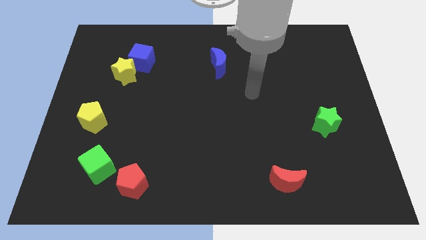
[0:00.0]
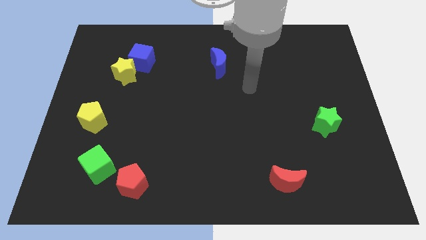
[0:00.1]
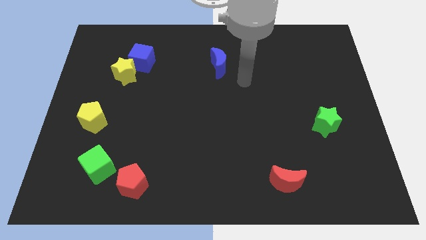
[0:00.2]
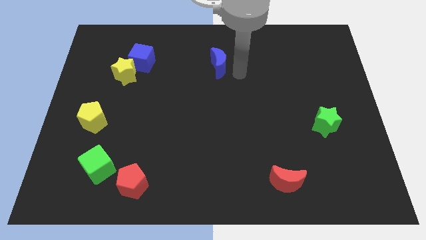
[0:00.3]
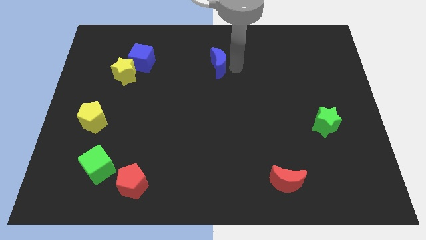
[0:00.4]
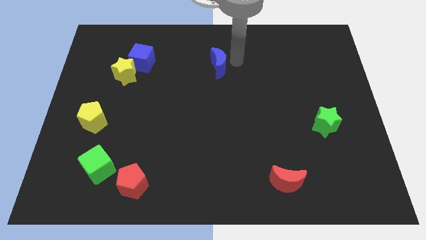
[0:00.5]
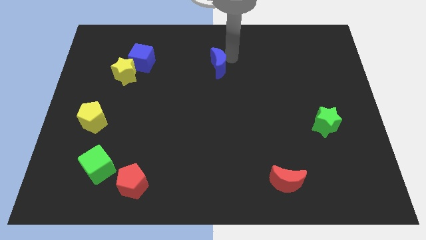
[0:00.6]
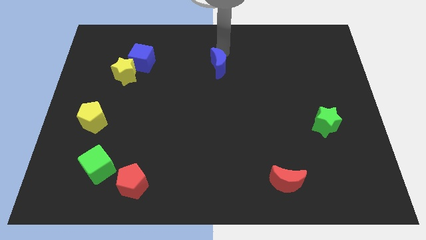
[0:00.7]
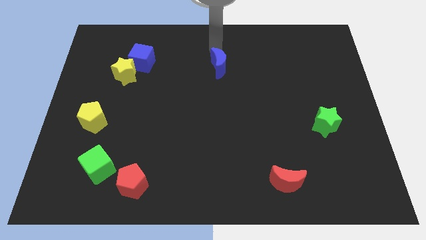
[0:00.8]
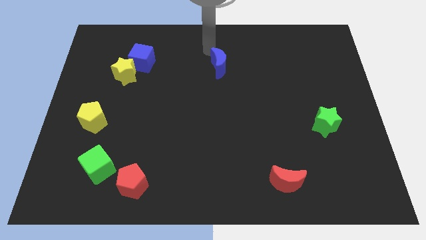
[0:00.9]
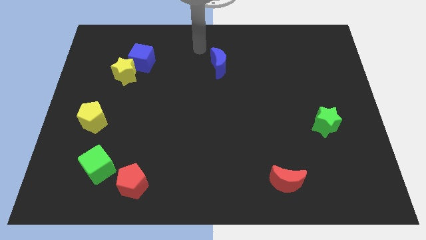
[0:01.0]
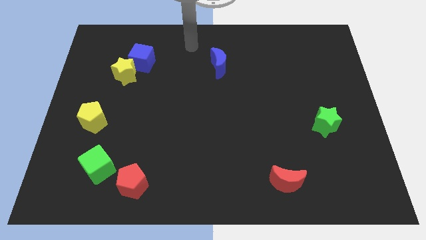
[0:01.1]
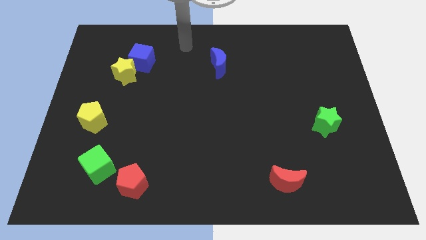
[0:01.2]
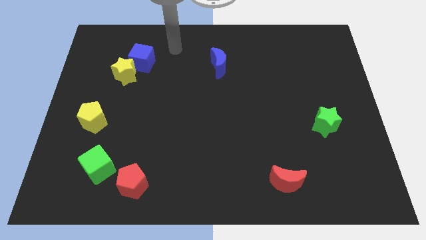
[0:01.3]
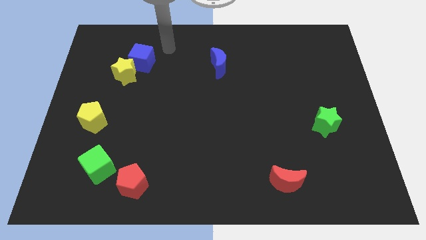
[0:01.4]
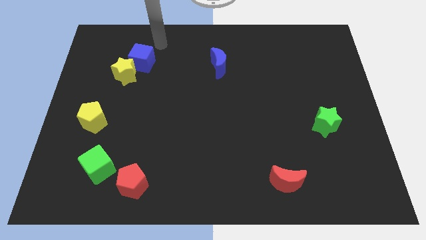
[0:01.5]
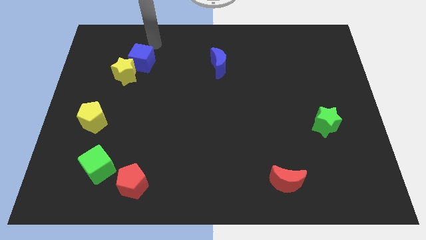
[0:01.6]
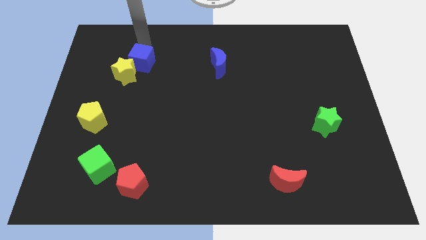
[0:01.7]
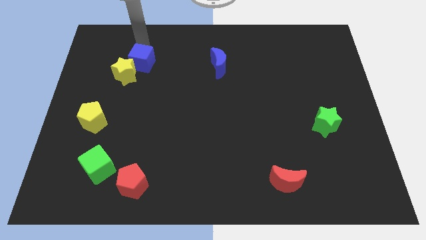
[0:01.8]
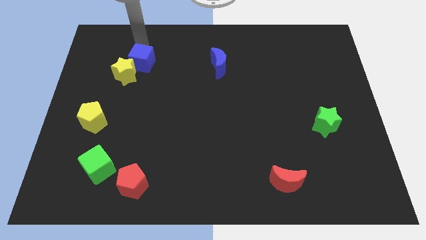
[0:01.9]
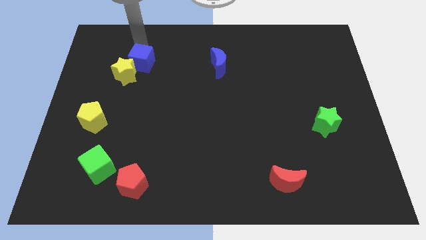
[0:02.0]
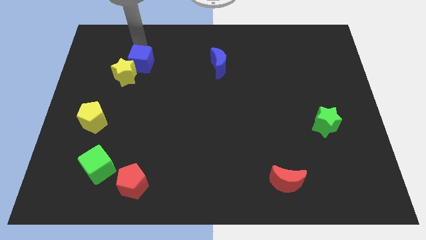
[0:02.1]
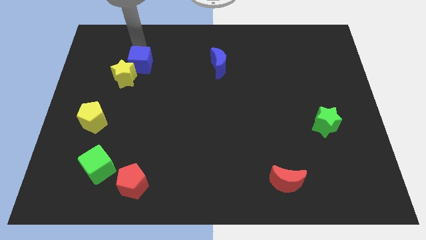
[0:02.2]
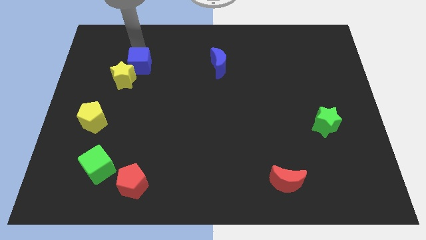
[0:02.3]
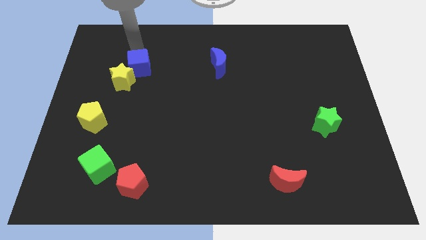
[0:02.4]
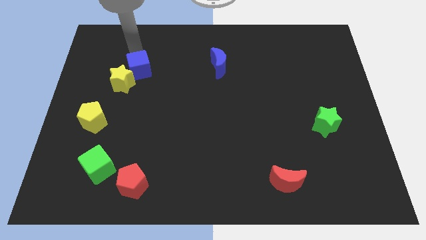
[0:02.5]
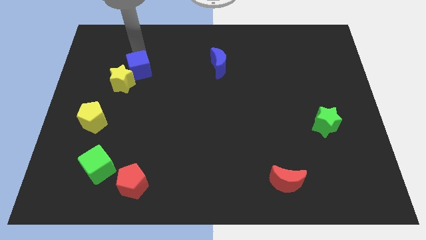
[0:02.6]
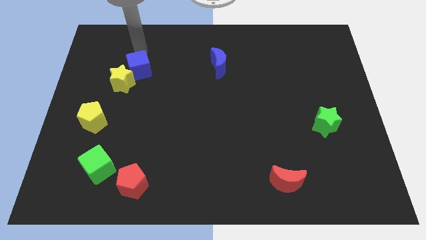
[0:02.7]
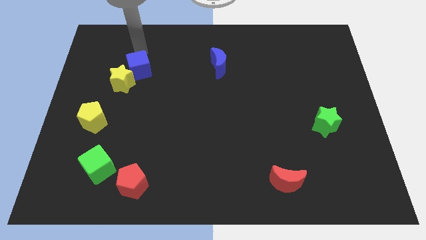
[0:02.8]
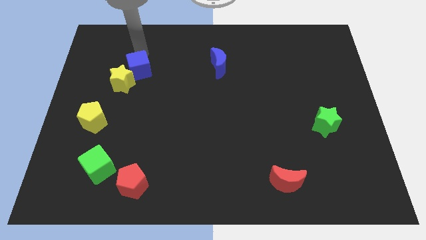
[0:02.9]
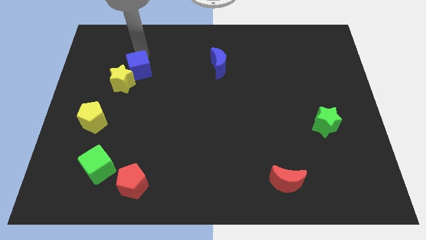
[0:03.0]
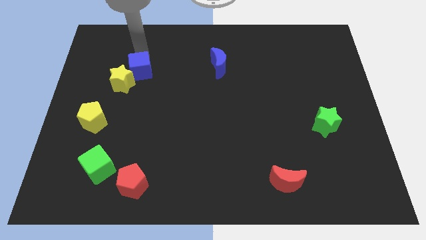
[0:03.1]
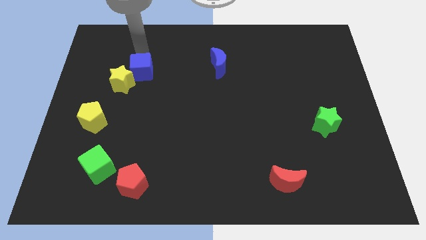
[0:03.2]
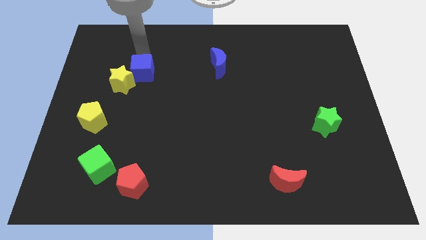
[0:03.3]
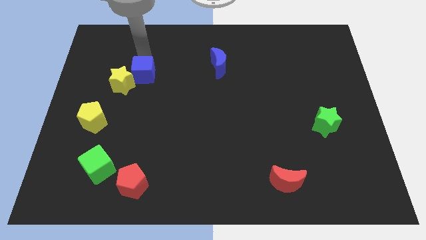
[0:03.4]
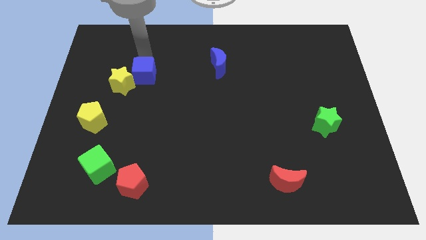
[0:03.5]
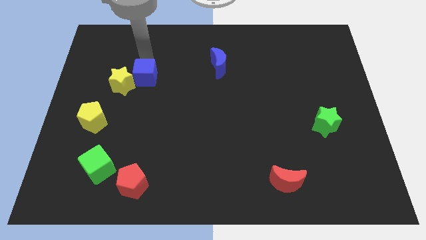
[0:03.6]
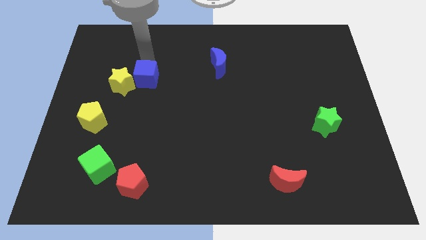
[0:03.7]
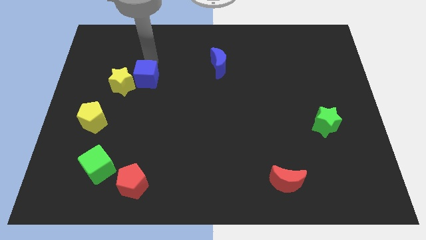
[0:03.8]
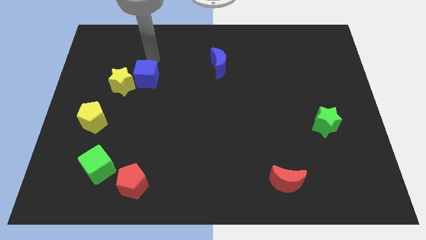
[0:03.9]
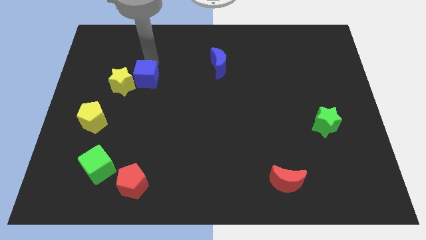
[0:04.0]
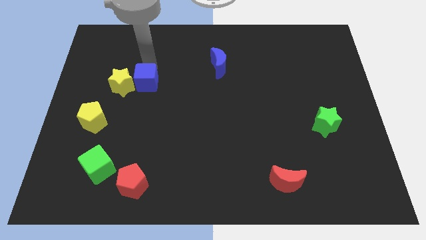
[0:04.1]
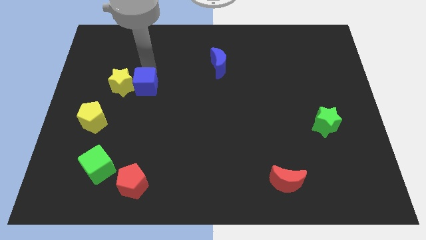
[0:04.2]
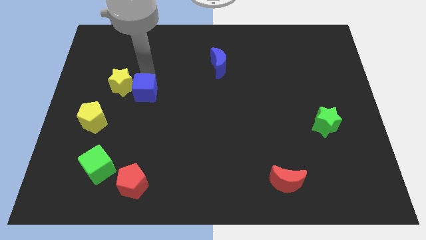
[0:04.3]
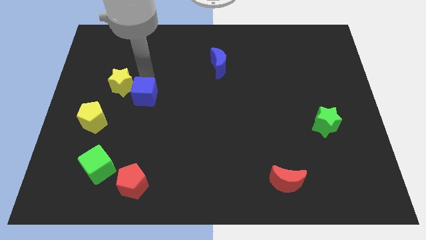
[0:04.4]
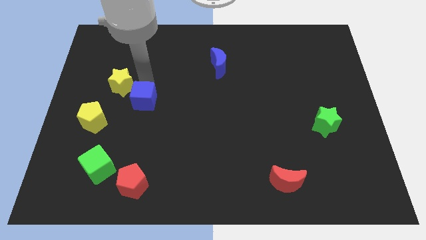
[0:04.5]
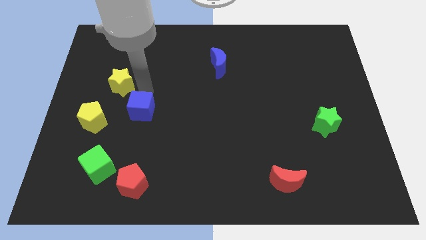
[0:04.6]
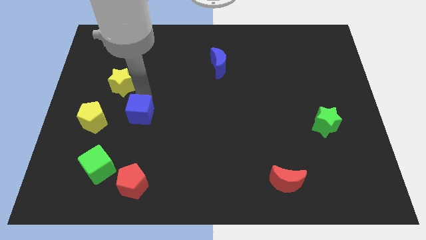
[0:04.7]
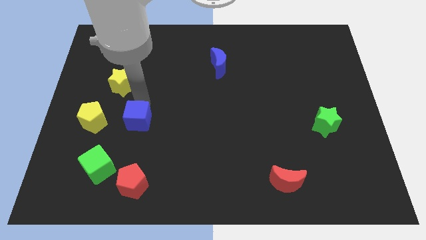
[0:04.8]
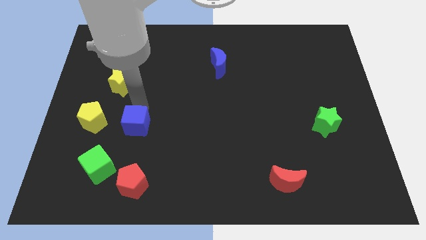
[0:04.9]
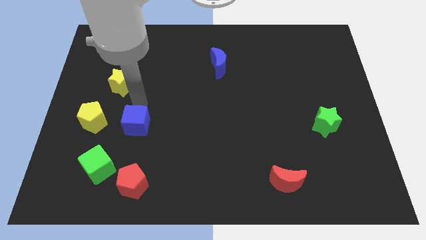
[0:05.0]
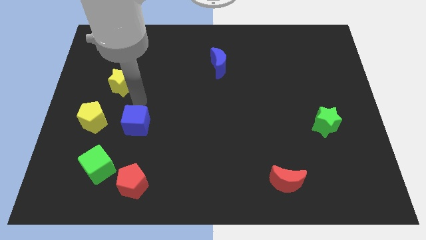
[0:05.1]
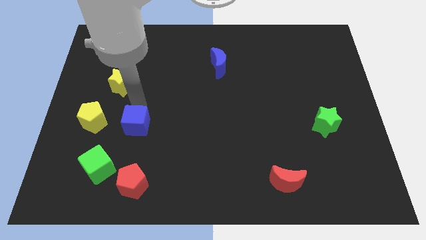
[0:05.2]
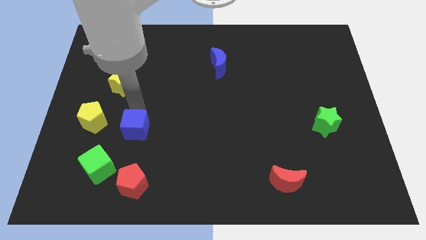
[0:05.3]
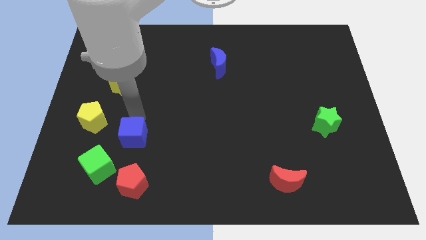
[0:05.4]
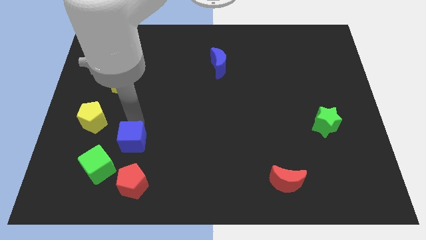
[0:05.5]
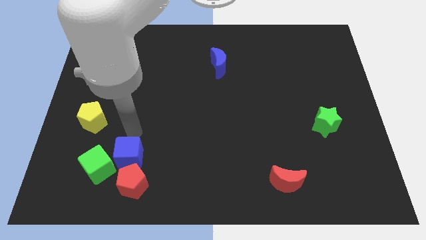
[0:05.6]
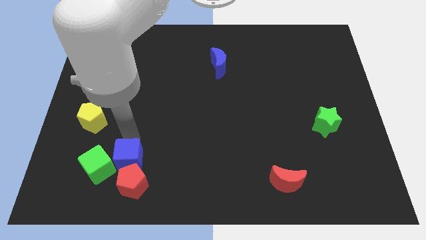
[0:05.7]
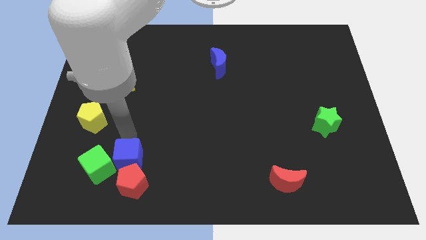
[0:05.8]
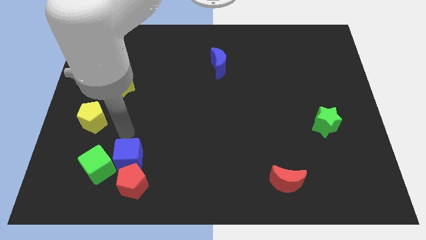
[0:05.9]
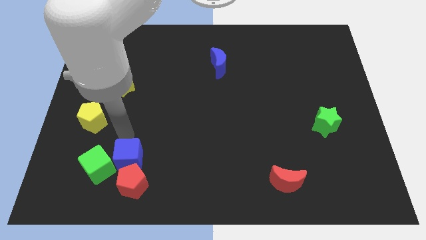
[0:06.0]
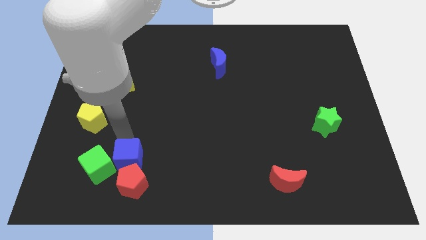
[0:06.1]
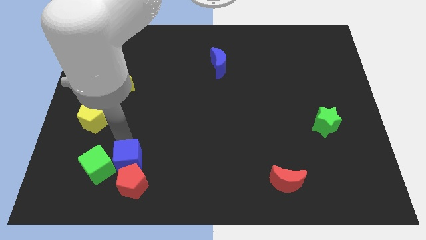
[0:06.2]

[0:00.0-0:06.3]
push the blue cube towards the red pentagon

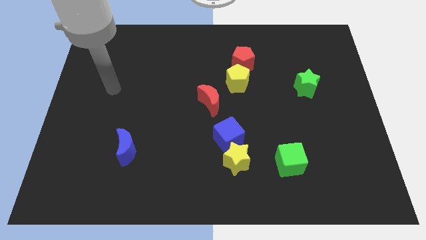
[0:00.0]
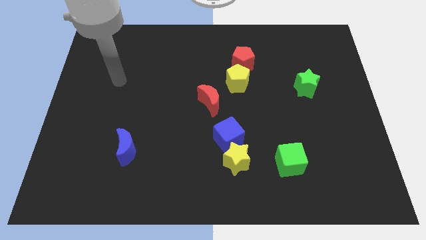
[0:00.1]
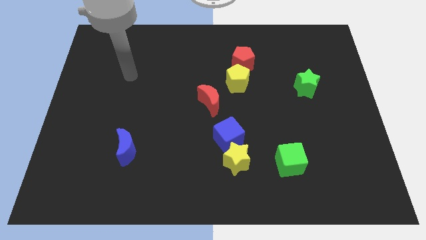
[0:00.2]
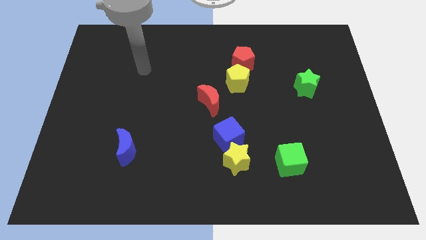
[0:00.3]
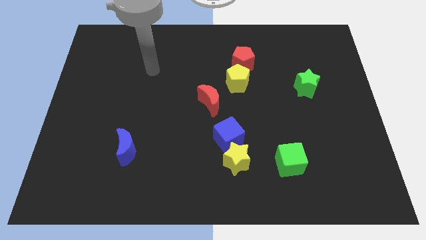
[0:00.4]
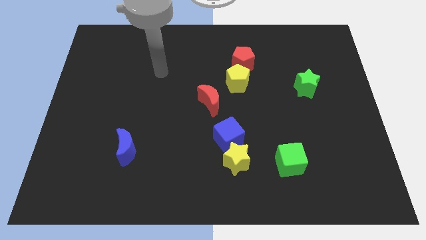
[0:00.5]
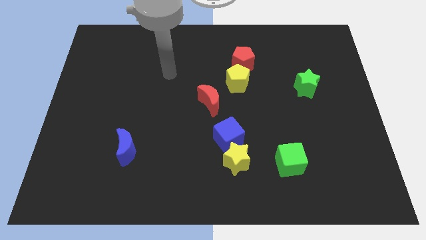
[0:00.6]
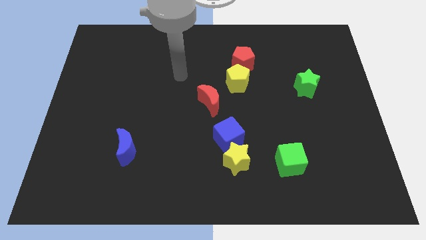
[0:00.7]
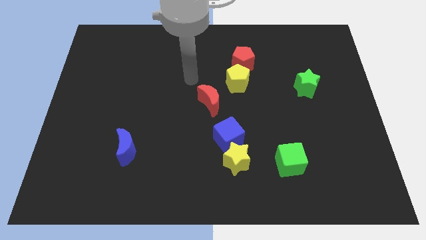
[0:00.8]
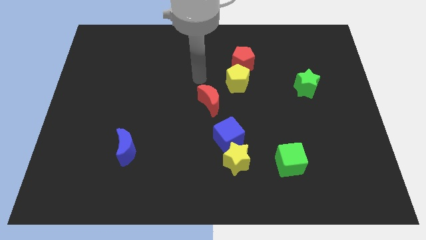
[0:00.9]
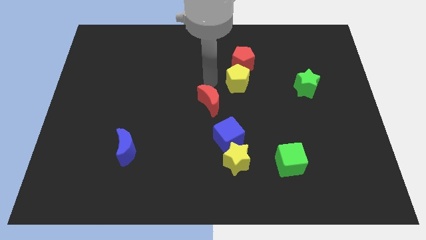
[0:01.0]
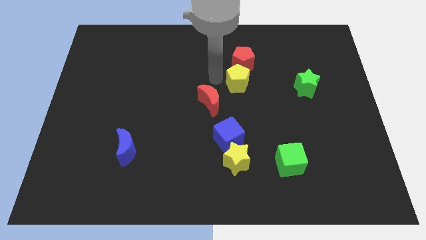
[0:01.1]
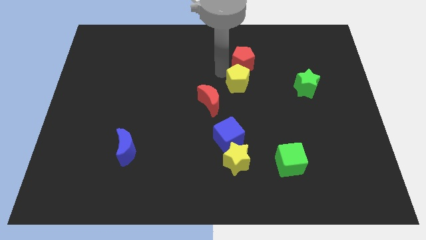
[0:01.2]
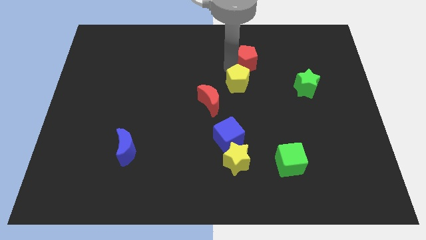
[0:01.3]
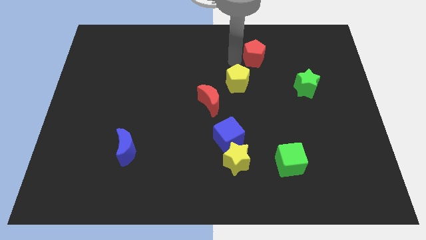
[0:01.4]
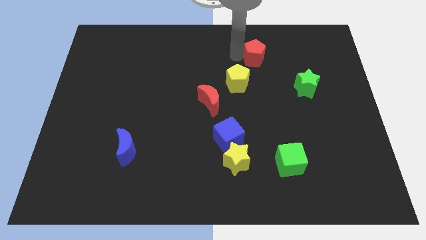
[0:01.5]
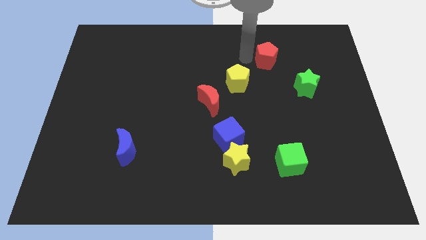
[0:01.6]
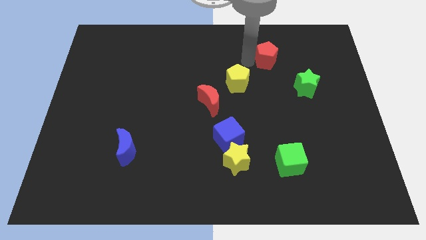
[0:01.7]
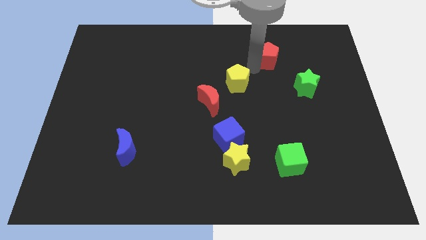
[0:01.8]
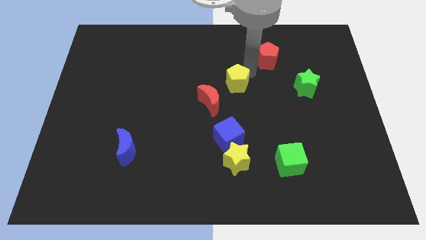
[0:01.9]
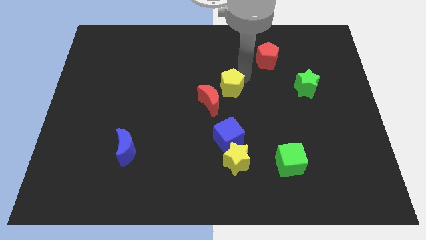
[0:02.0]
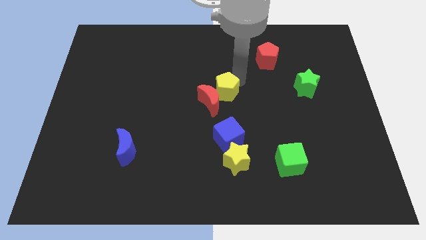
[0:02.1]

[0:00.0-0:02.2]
push the yellow pentagon close to the red moon
